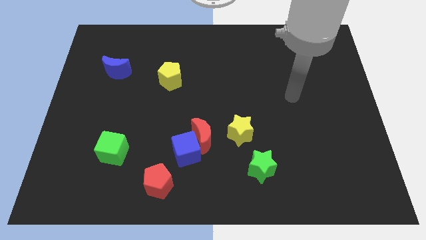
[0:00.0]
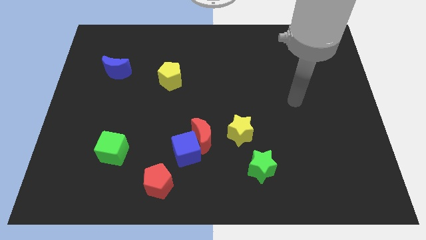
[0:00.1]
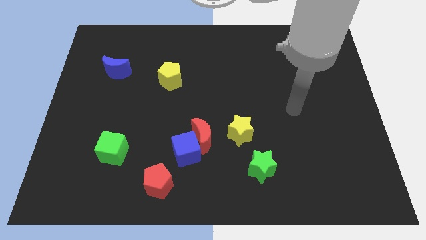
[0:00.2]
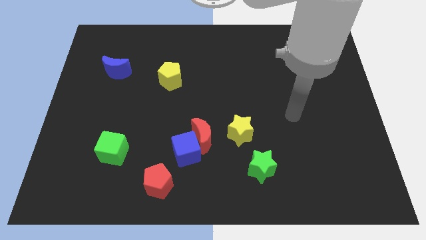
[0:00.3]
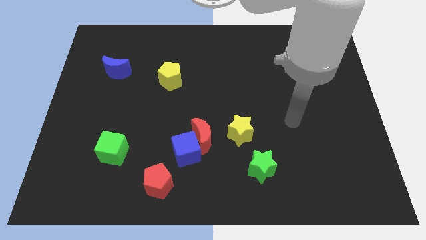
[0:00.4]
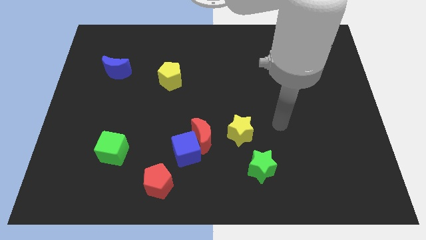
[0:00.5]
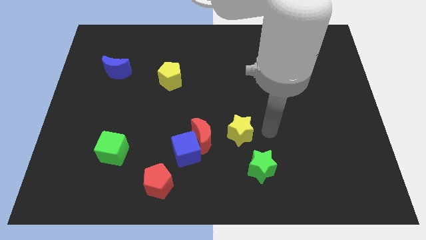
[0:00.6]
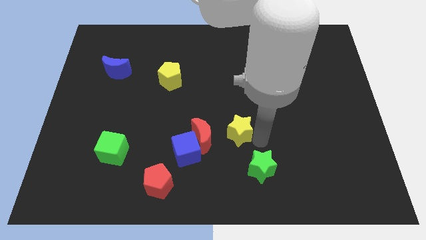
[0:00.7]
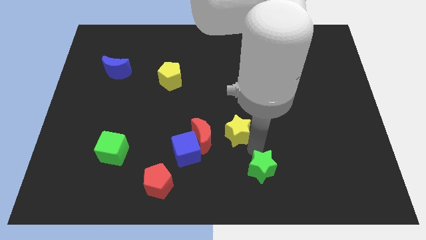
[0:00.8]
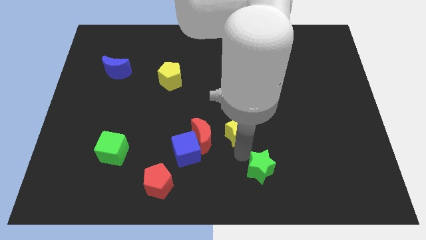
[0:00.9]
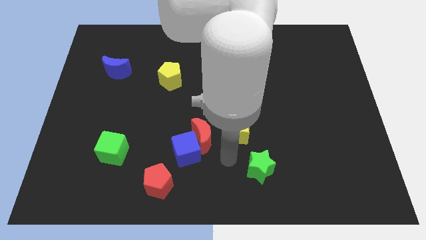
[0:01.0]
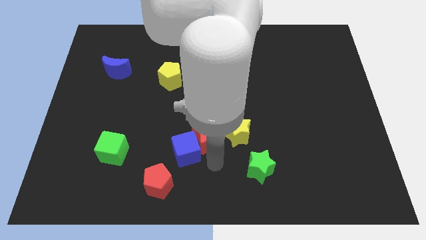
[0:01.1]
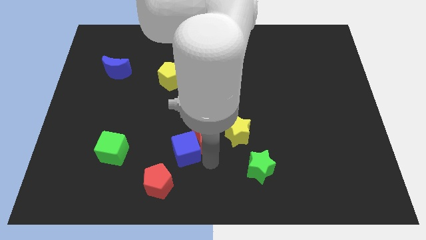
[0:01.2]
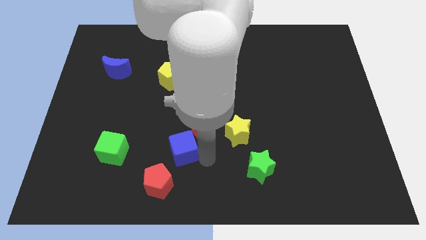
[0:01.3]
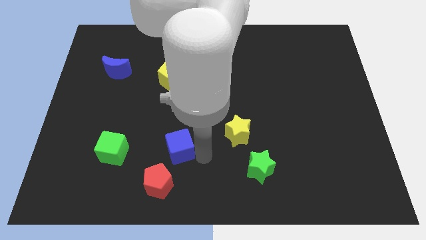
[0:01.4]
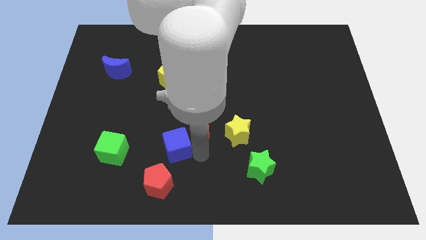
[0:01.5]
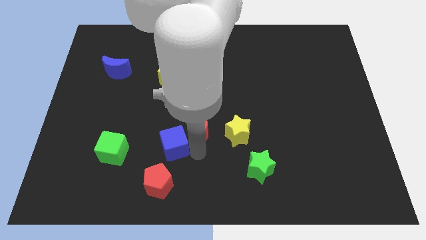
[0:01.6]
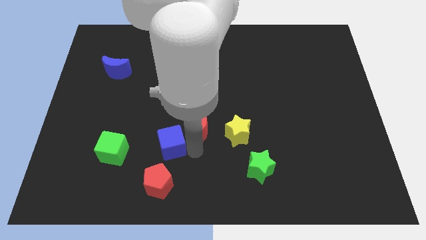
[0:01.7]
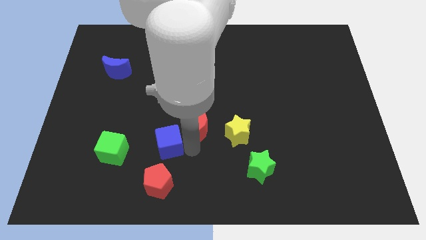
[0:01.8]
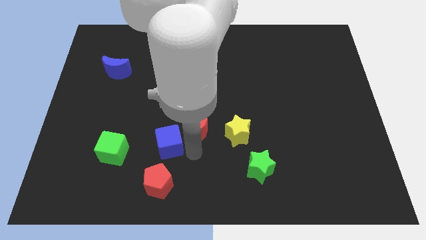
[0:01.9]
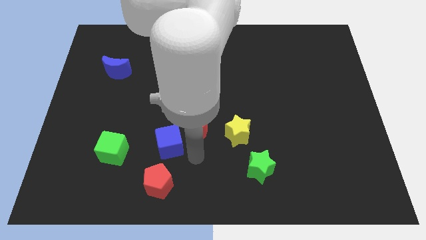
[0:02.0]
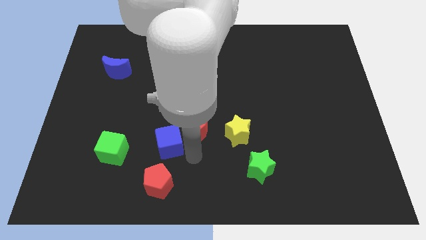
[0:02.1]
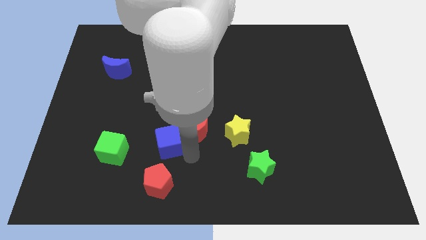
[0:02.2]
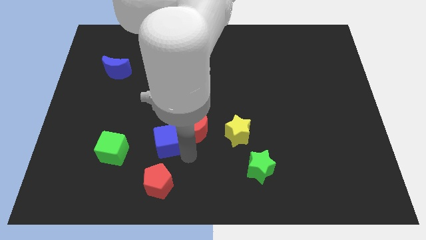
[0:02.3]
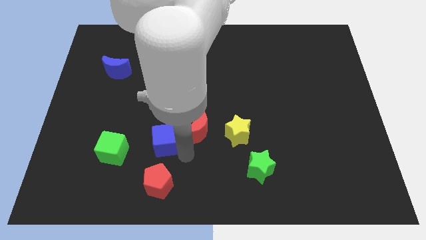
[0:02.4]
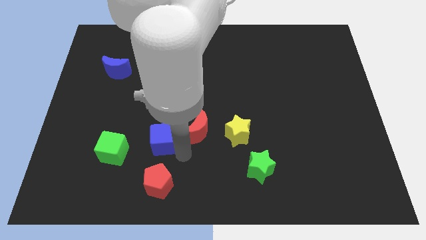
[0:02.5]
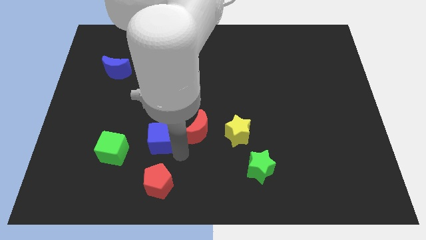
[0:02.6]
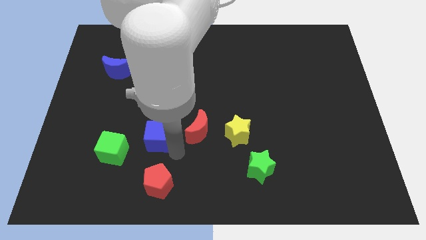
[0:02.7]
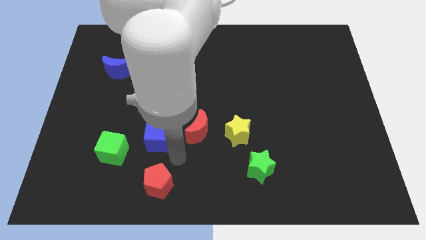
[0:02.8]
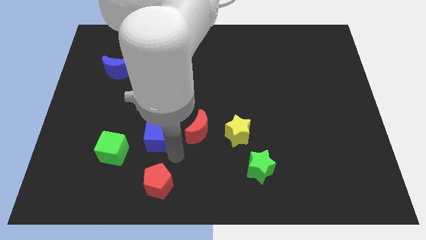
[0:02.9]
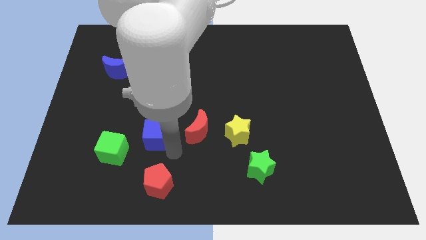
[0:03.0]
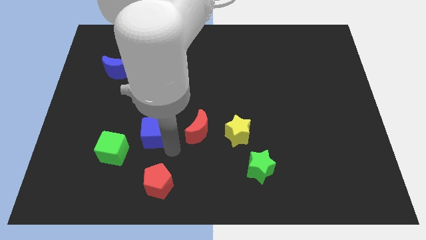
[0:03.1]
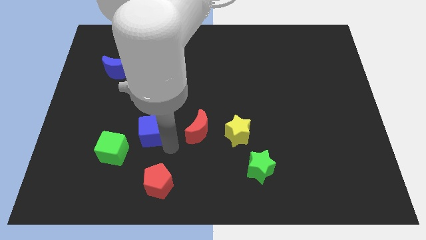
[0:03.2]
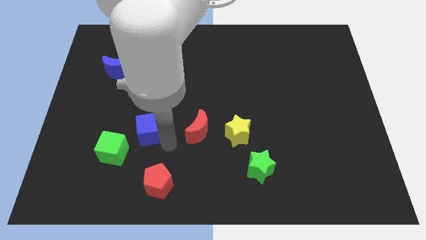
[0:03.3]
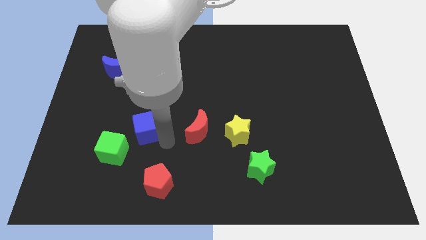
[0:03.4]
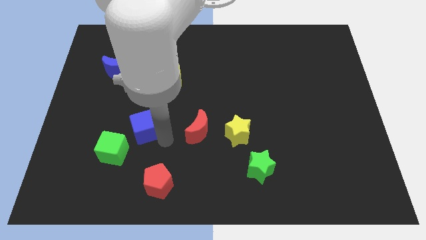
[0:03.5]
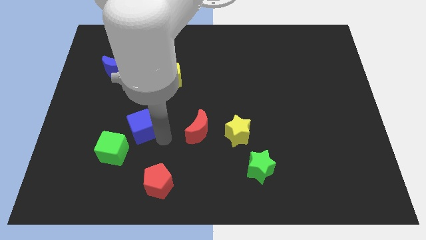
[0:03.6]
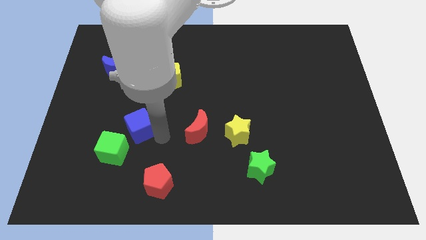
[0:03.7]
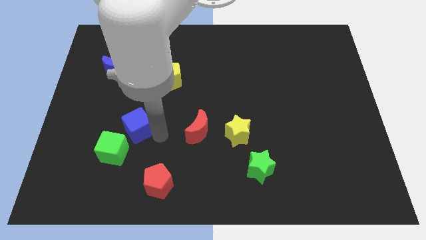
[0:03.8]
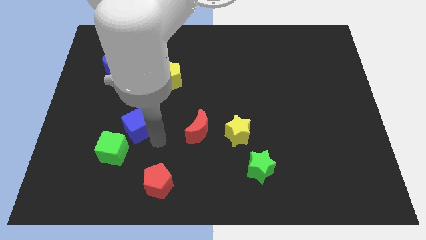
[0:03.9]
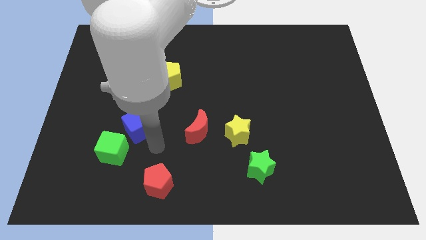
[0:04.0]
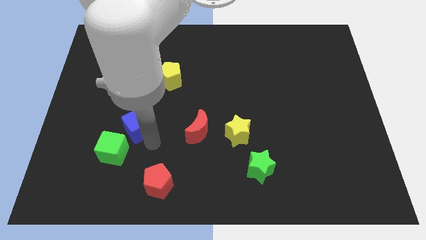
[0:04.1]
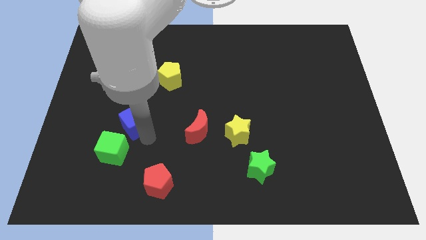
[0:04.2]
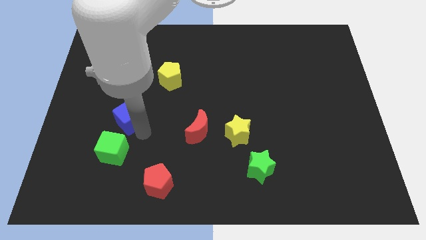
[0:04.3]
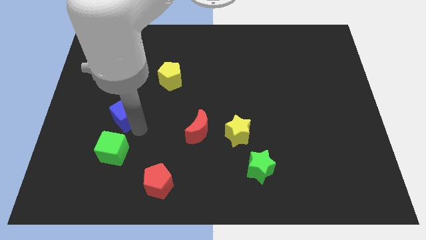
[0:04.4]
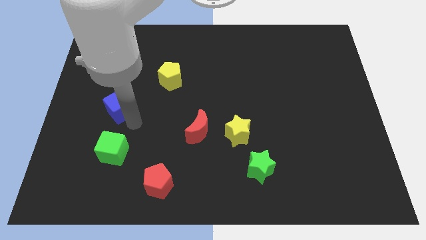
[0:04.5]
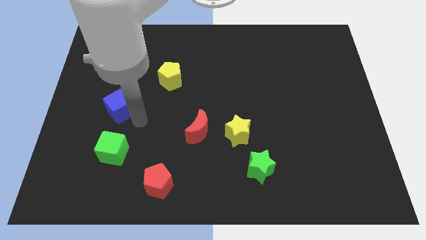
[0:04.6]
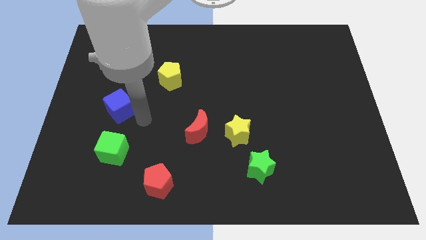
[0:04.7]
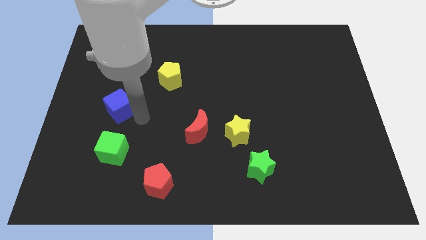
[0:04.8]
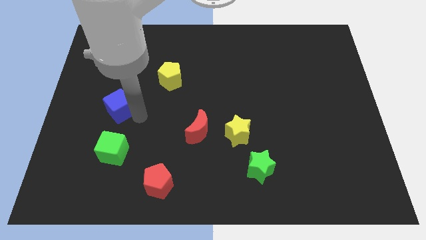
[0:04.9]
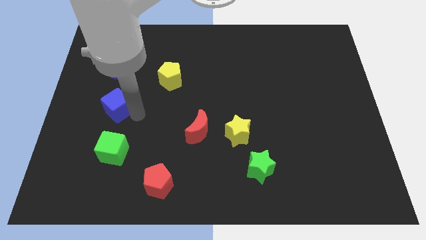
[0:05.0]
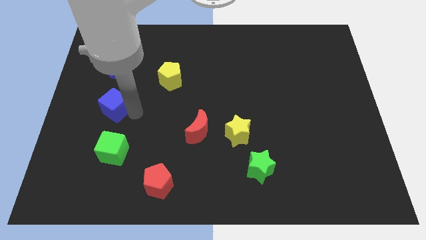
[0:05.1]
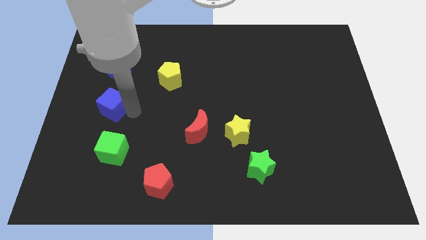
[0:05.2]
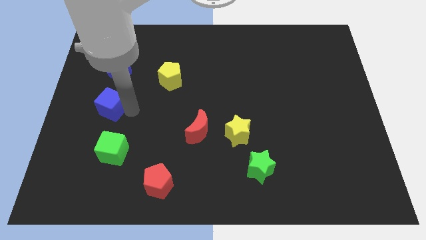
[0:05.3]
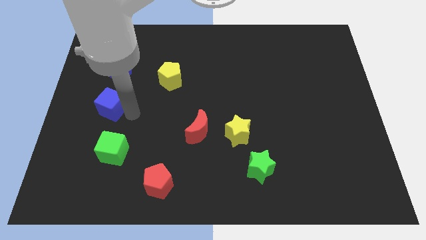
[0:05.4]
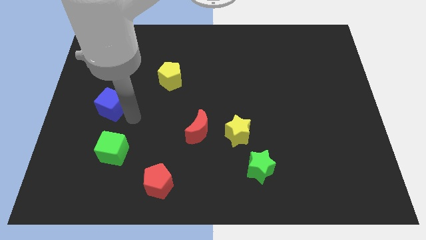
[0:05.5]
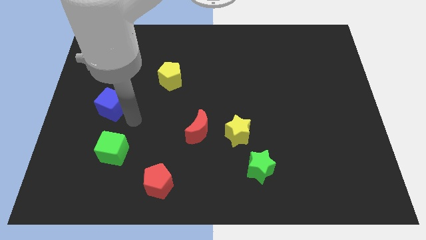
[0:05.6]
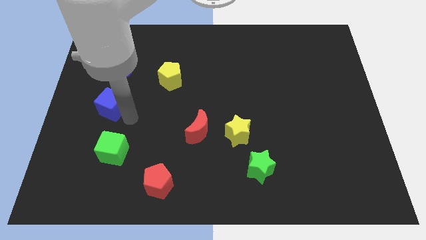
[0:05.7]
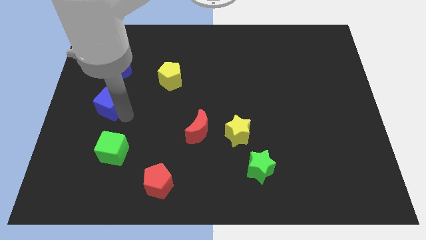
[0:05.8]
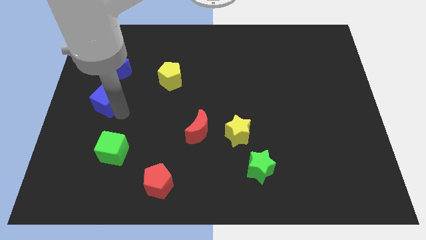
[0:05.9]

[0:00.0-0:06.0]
push the blue cube to the left side of the board
